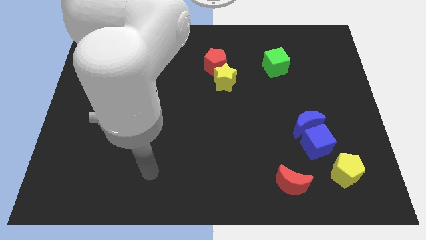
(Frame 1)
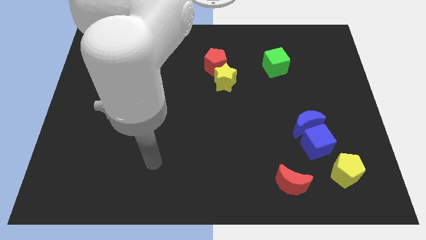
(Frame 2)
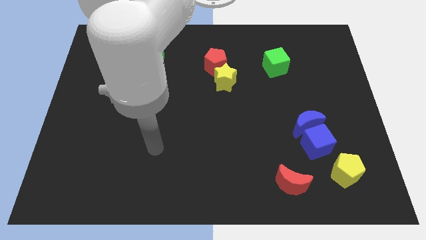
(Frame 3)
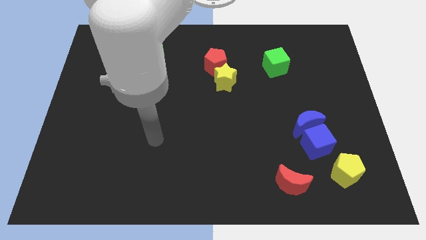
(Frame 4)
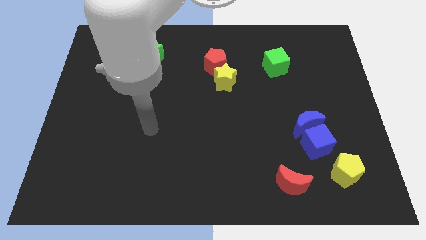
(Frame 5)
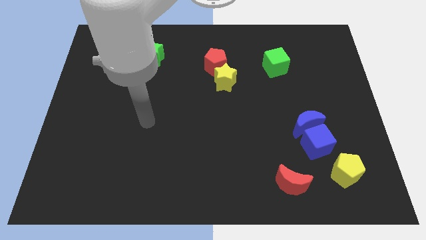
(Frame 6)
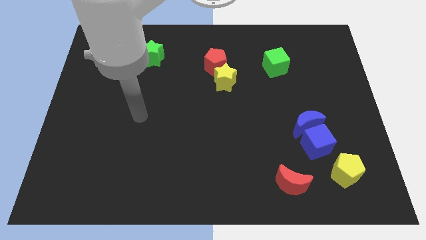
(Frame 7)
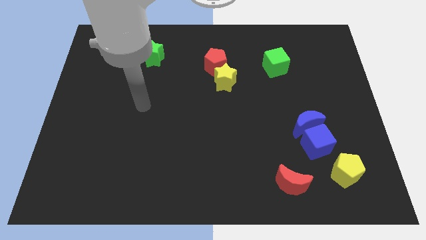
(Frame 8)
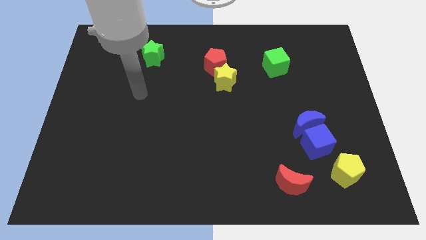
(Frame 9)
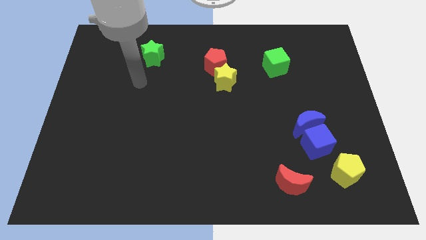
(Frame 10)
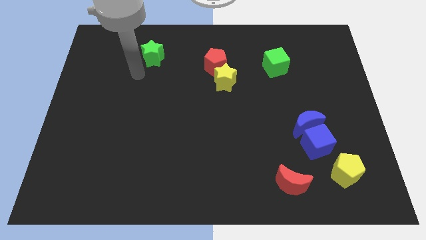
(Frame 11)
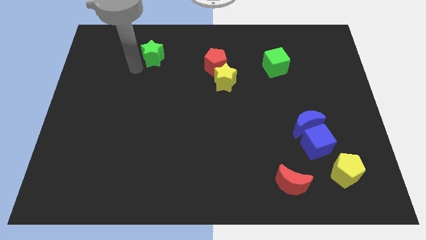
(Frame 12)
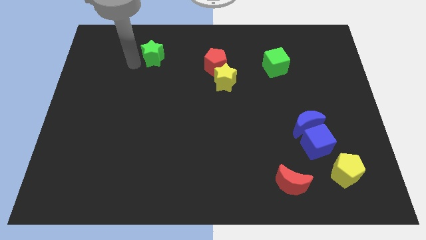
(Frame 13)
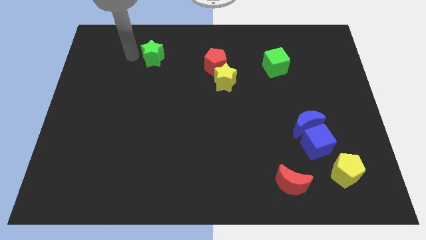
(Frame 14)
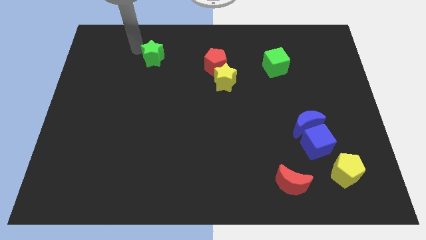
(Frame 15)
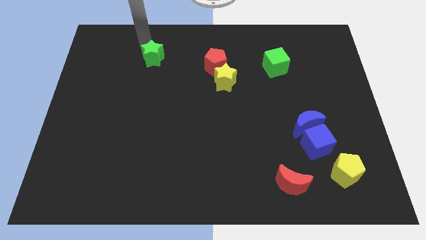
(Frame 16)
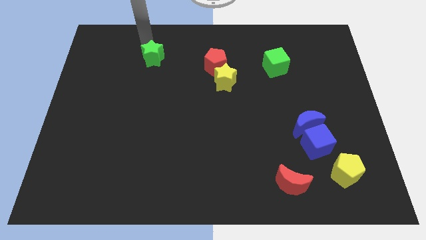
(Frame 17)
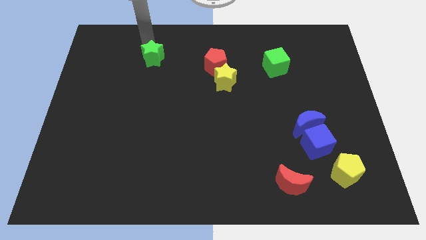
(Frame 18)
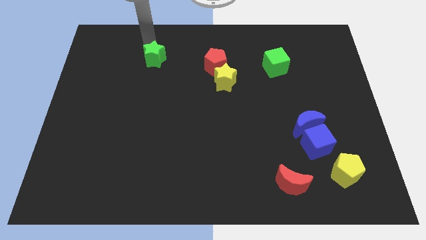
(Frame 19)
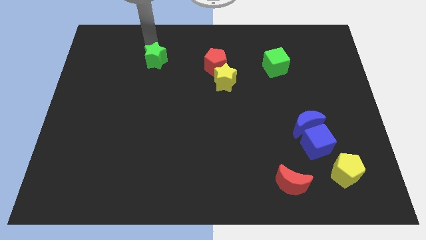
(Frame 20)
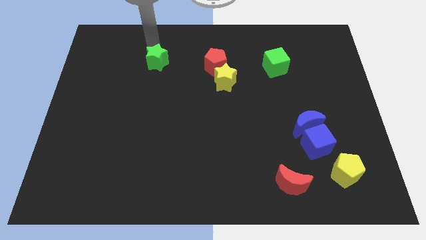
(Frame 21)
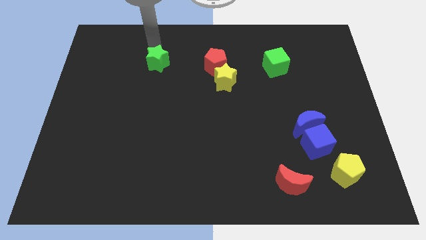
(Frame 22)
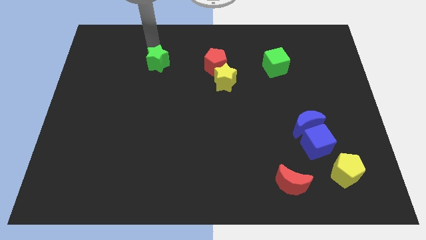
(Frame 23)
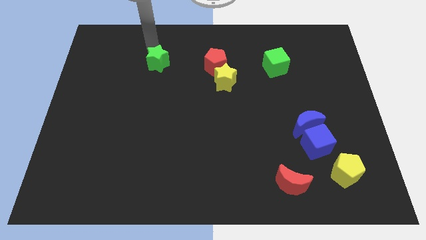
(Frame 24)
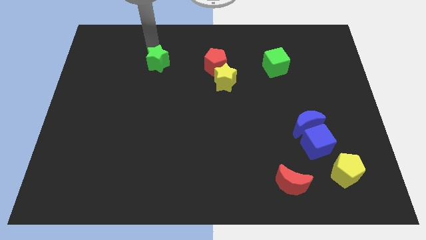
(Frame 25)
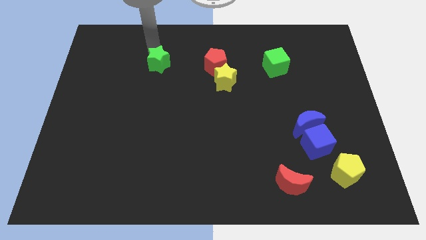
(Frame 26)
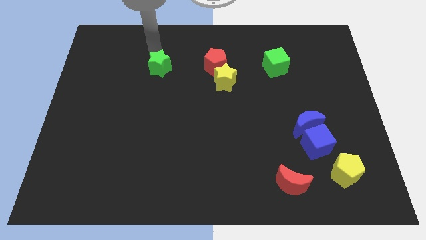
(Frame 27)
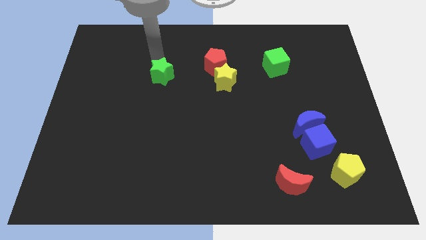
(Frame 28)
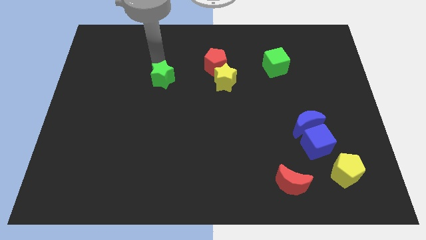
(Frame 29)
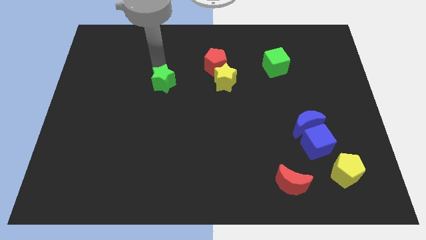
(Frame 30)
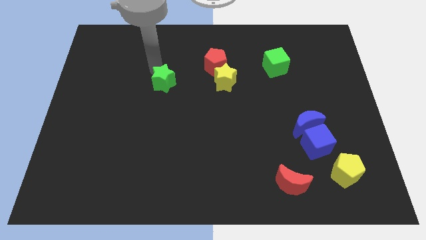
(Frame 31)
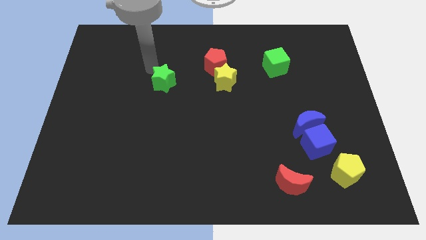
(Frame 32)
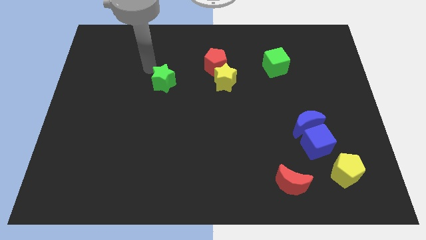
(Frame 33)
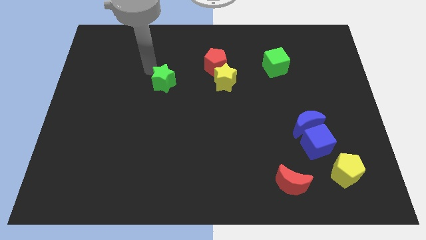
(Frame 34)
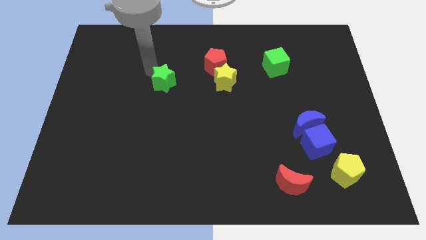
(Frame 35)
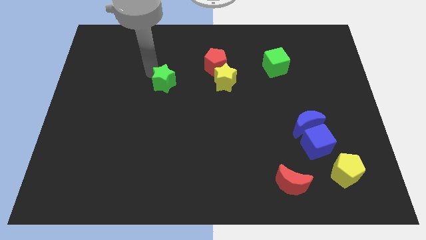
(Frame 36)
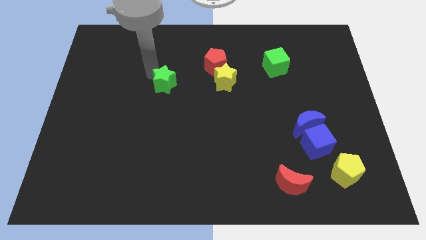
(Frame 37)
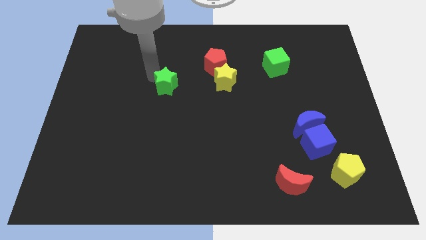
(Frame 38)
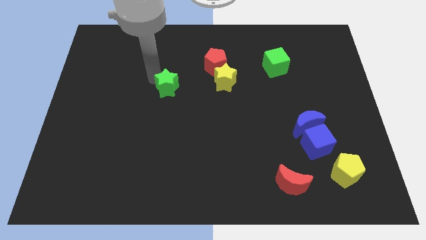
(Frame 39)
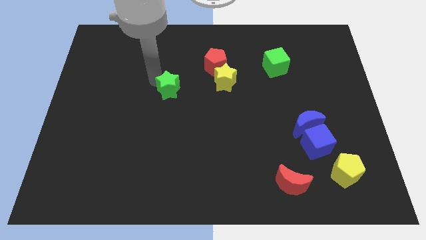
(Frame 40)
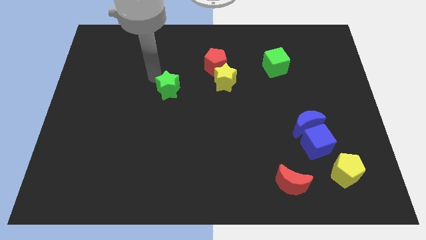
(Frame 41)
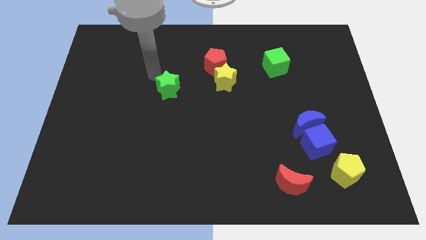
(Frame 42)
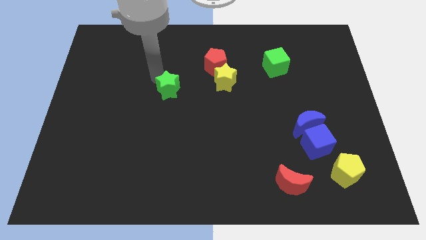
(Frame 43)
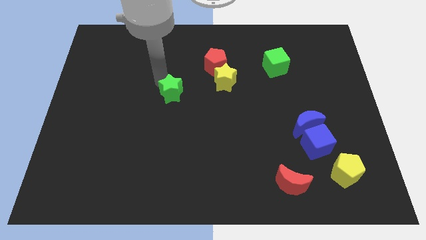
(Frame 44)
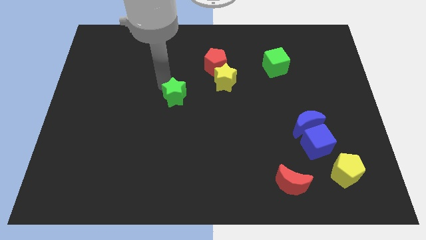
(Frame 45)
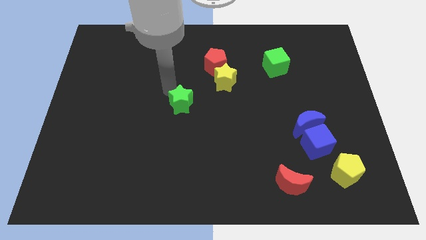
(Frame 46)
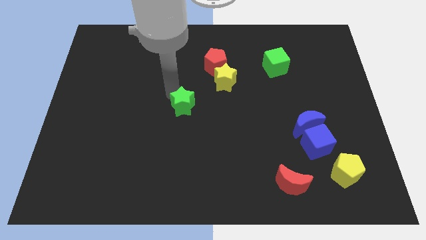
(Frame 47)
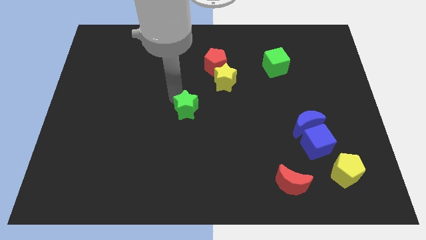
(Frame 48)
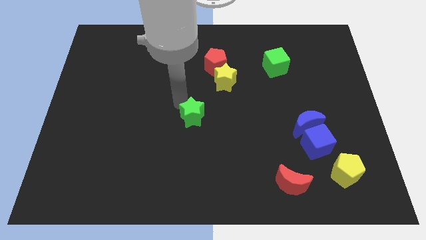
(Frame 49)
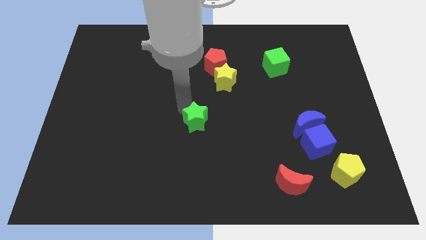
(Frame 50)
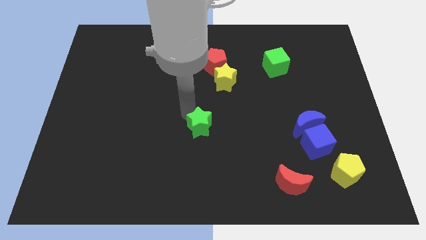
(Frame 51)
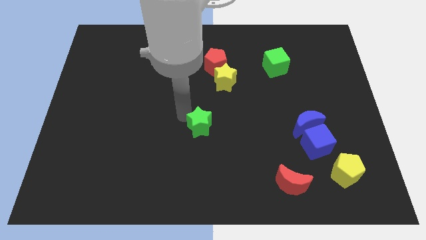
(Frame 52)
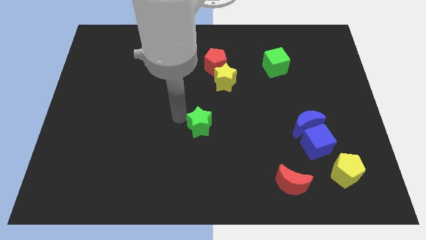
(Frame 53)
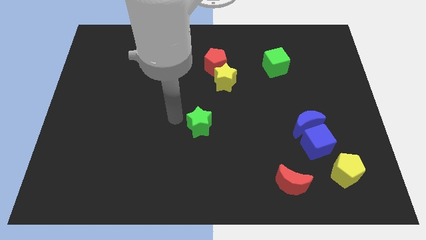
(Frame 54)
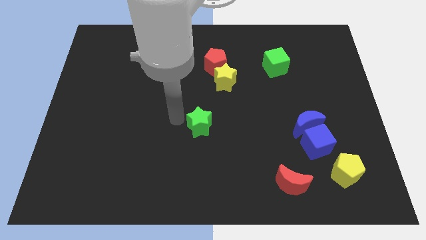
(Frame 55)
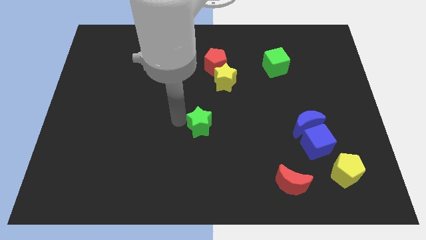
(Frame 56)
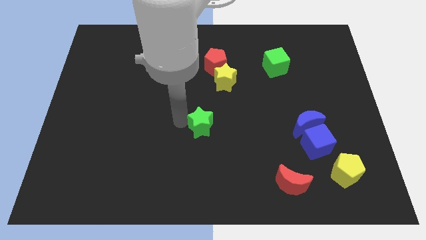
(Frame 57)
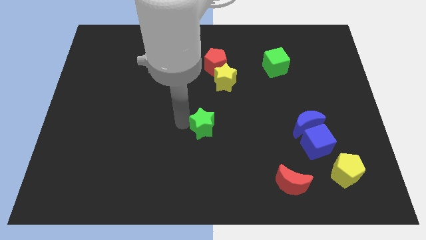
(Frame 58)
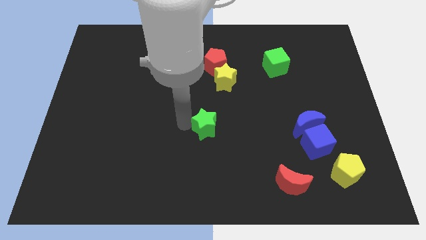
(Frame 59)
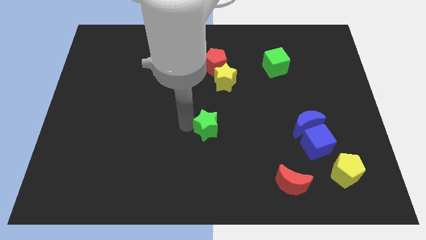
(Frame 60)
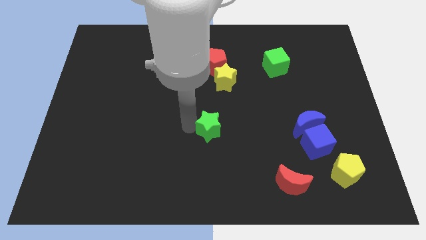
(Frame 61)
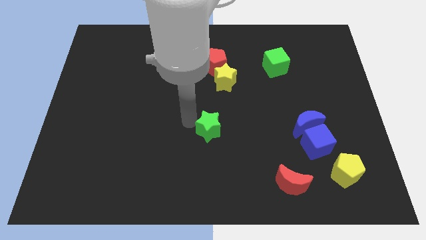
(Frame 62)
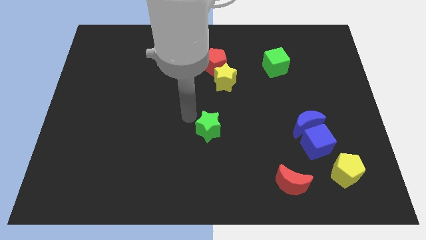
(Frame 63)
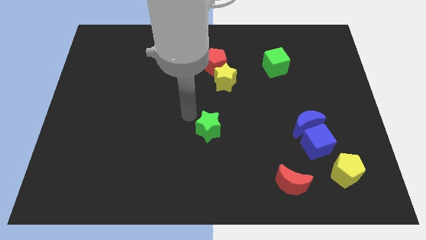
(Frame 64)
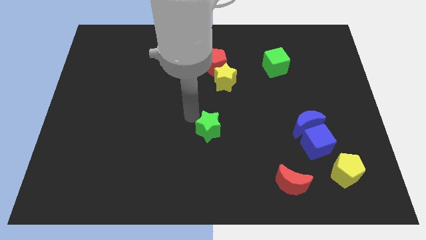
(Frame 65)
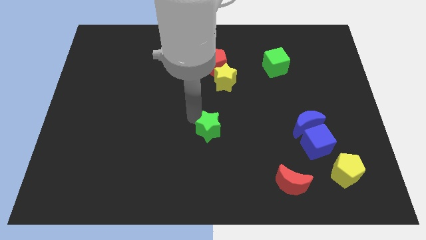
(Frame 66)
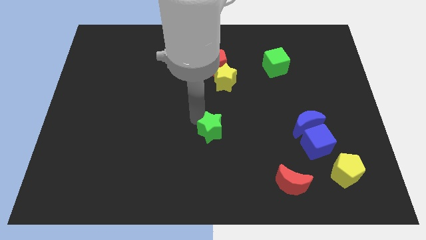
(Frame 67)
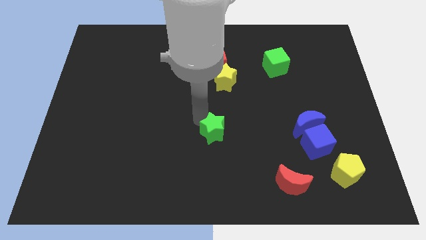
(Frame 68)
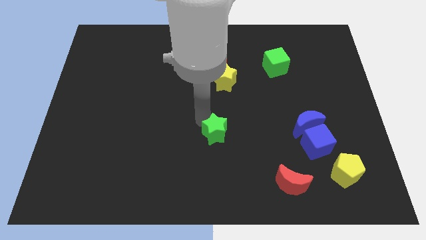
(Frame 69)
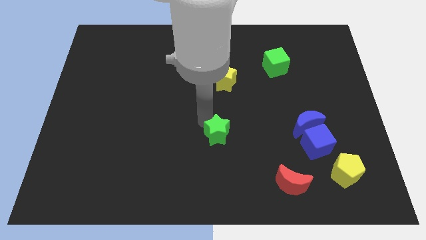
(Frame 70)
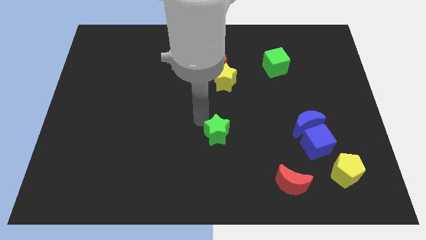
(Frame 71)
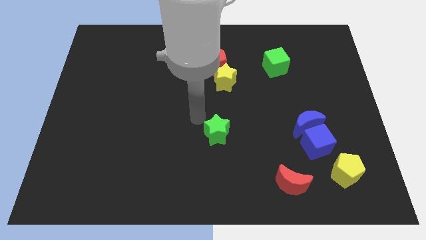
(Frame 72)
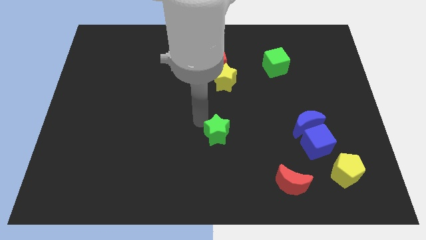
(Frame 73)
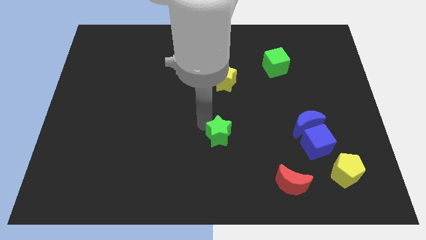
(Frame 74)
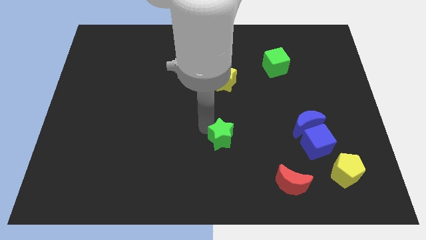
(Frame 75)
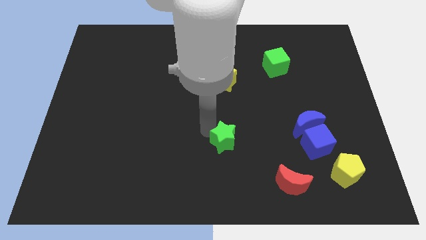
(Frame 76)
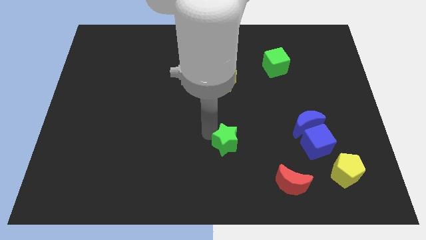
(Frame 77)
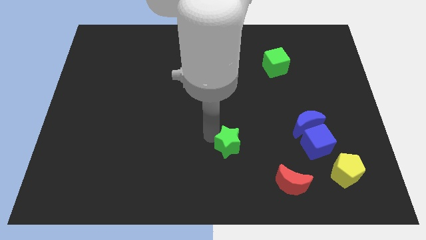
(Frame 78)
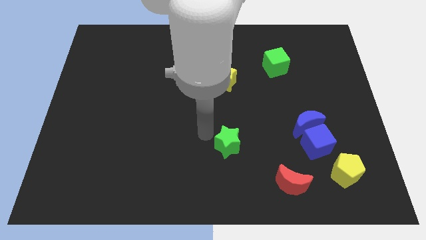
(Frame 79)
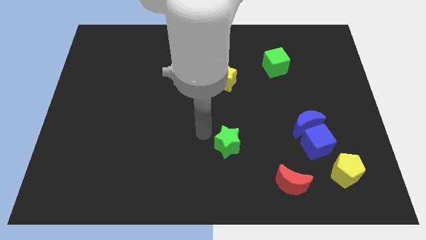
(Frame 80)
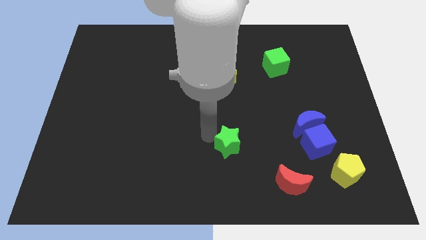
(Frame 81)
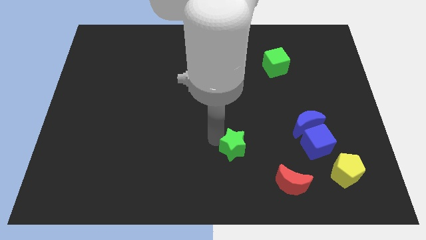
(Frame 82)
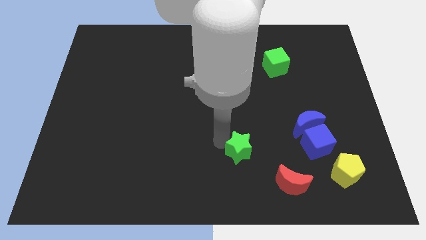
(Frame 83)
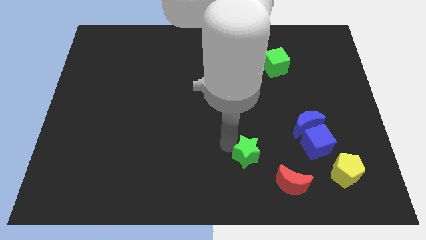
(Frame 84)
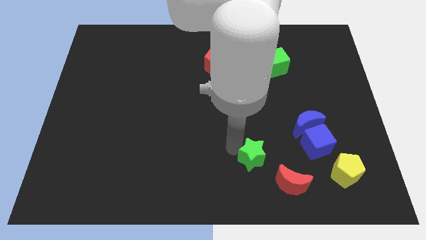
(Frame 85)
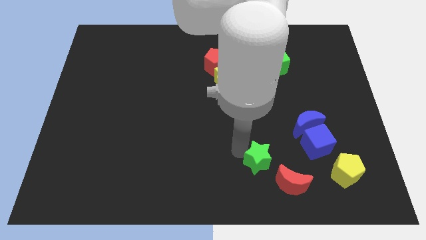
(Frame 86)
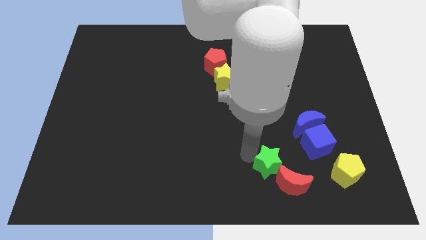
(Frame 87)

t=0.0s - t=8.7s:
move the green star towards the red moon
